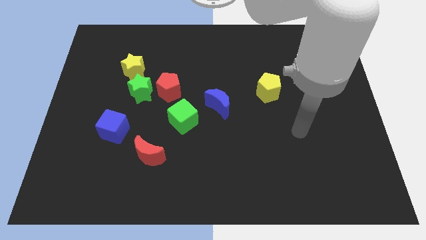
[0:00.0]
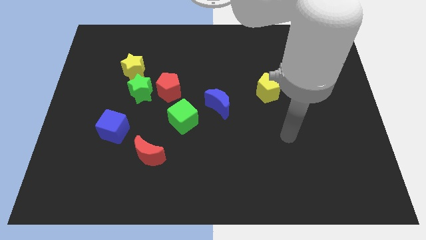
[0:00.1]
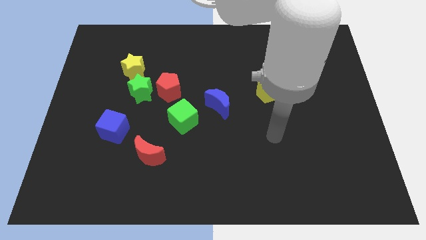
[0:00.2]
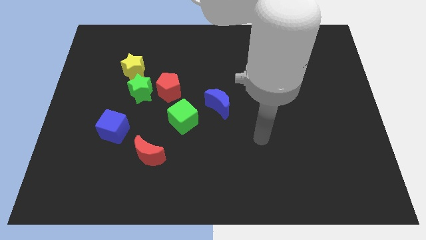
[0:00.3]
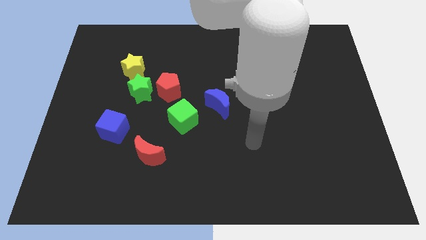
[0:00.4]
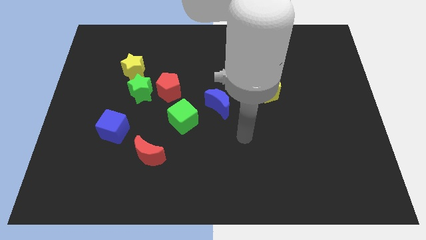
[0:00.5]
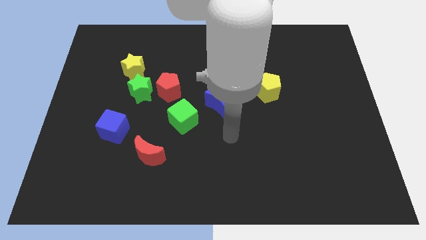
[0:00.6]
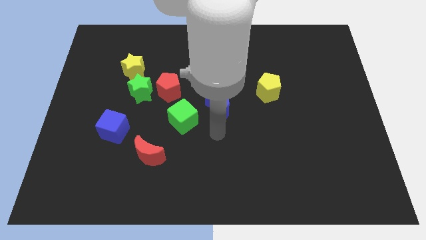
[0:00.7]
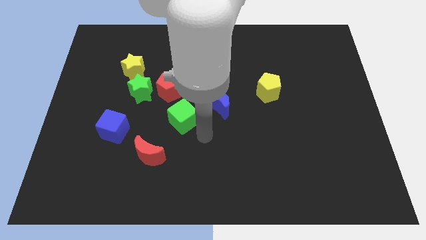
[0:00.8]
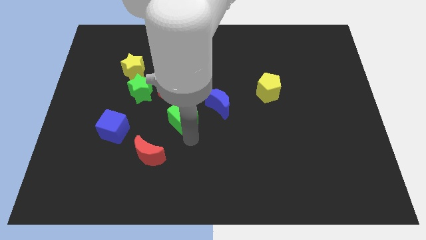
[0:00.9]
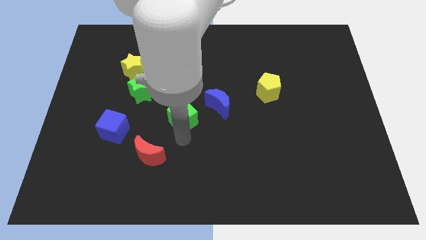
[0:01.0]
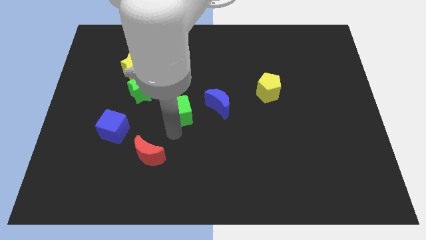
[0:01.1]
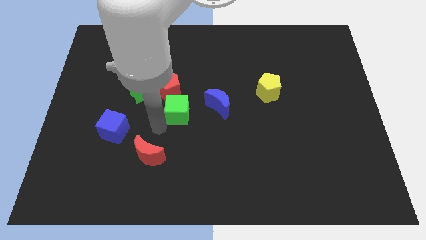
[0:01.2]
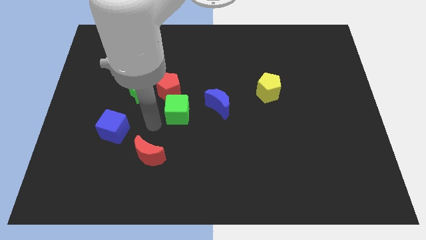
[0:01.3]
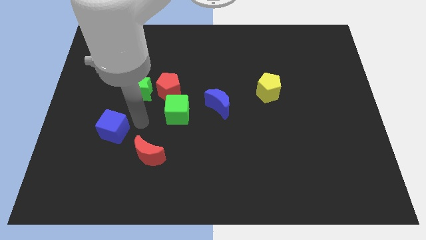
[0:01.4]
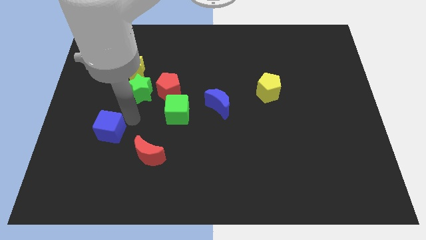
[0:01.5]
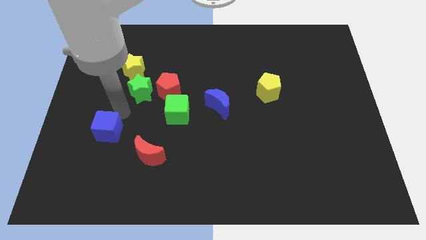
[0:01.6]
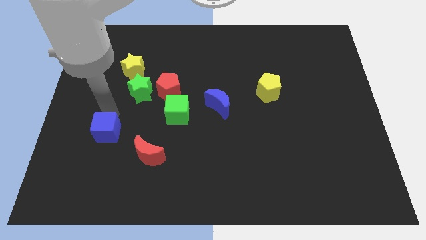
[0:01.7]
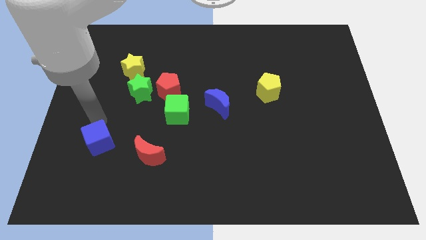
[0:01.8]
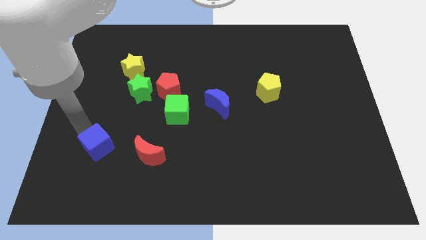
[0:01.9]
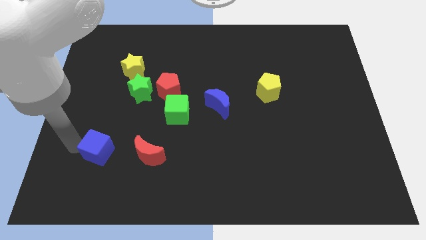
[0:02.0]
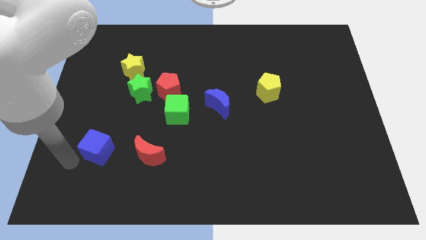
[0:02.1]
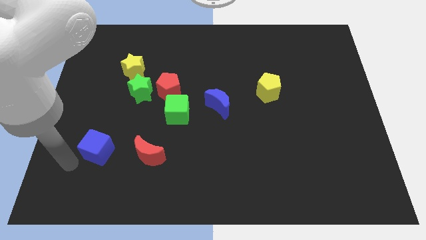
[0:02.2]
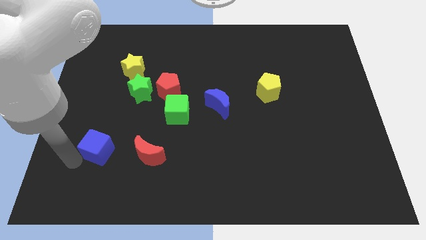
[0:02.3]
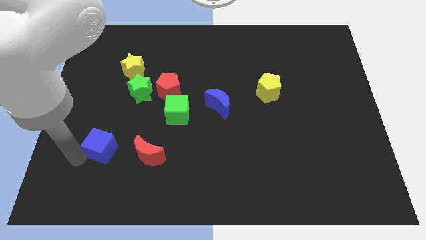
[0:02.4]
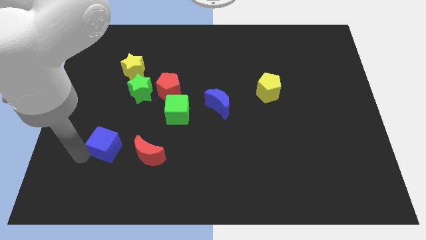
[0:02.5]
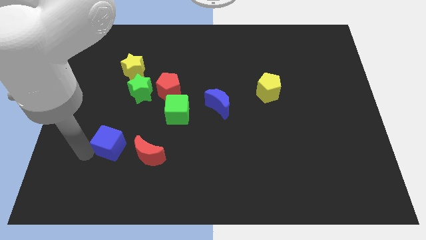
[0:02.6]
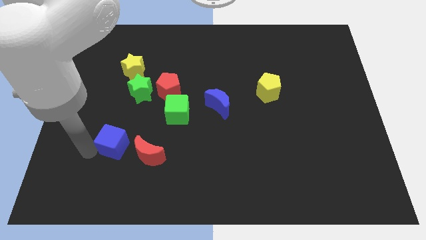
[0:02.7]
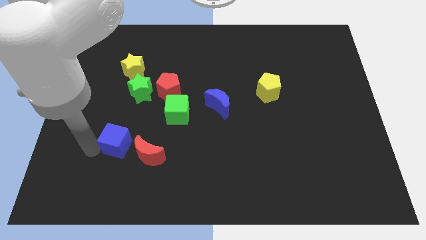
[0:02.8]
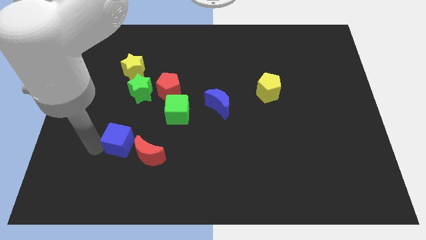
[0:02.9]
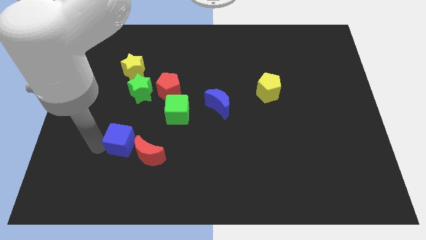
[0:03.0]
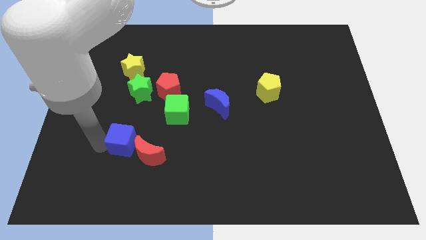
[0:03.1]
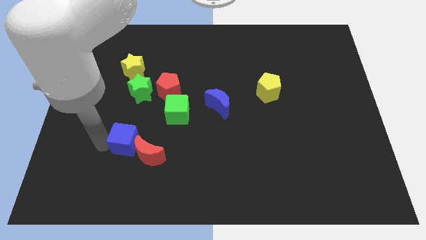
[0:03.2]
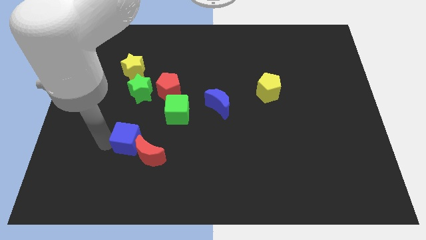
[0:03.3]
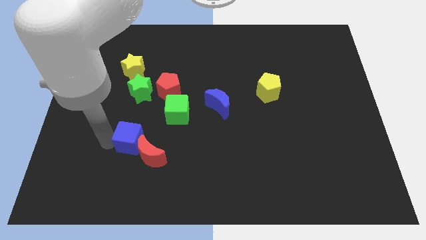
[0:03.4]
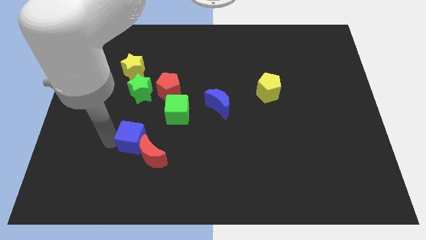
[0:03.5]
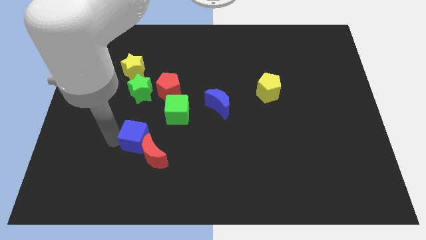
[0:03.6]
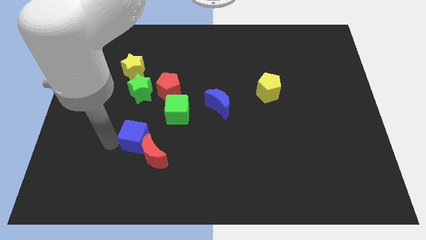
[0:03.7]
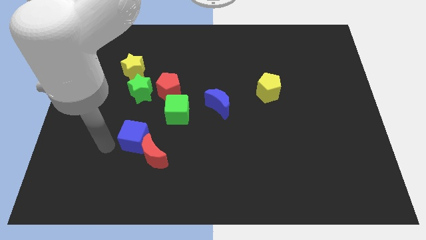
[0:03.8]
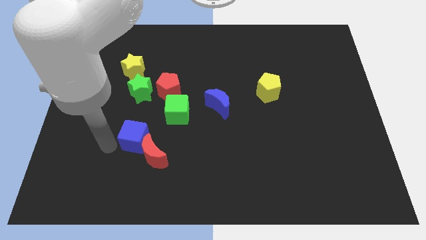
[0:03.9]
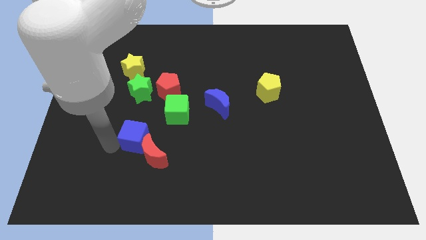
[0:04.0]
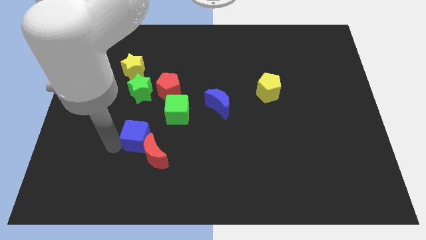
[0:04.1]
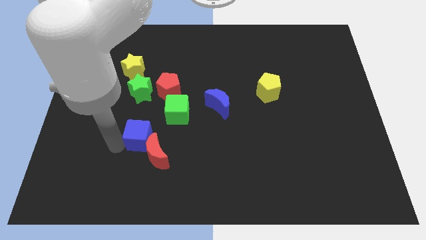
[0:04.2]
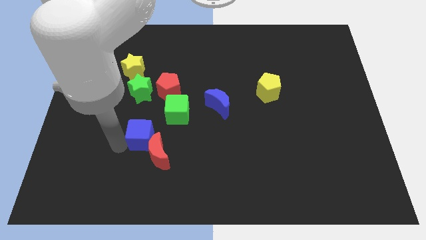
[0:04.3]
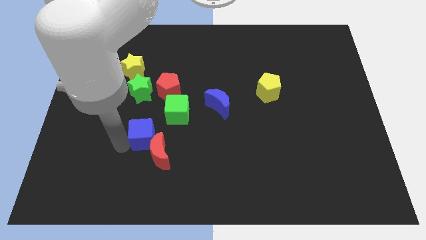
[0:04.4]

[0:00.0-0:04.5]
push the blue cube to the right slightly

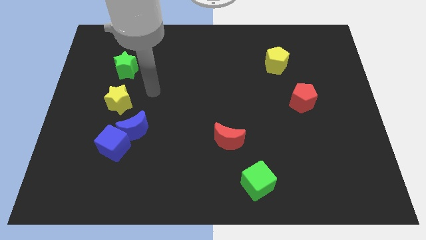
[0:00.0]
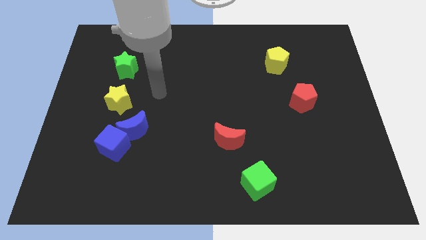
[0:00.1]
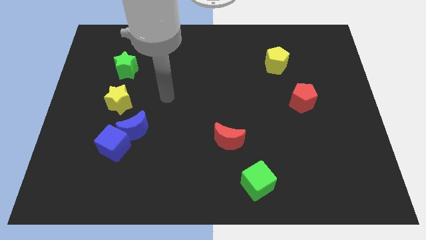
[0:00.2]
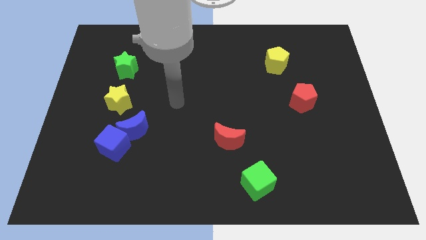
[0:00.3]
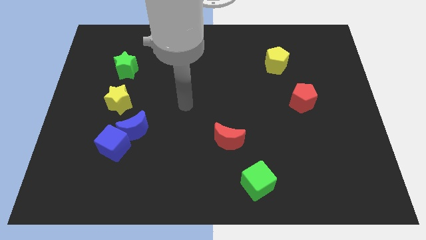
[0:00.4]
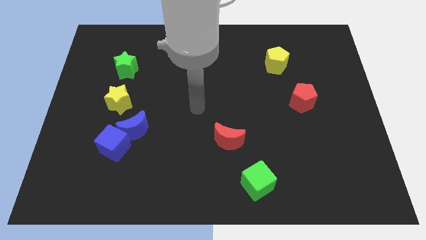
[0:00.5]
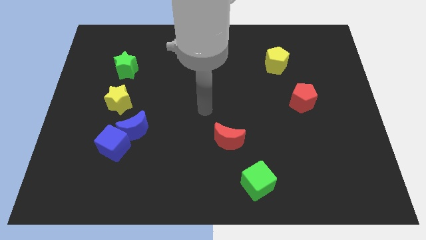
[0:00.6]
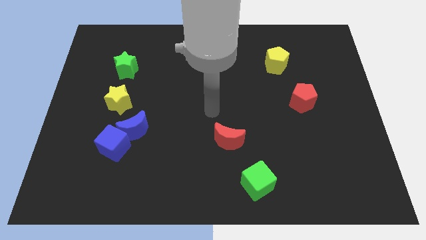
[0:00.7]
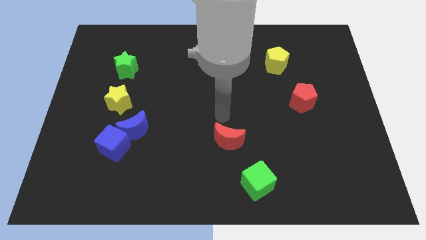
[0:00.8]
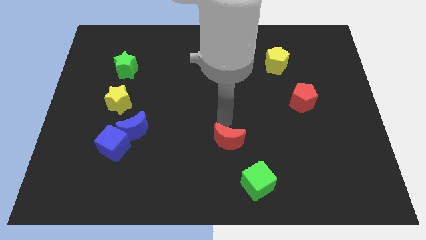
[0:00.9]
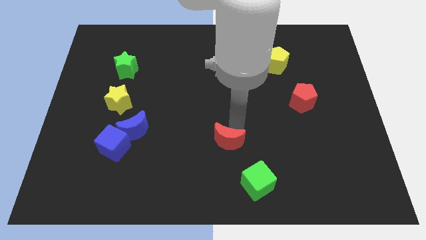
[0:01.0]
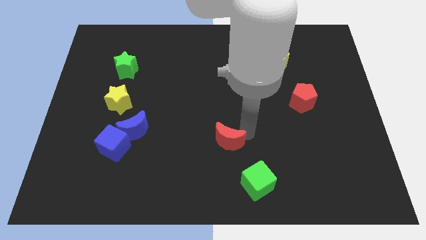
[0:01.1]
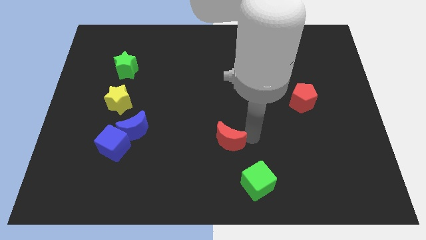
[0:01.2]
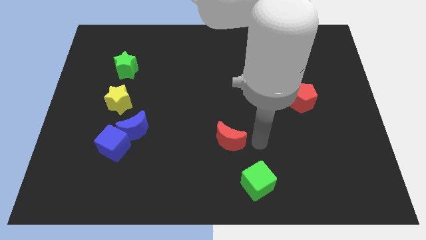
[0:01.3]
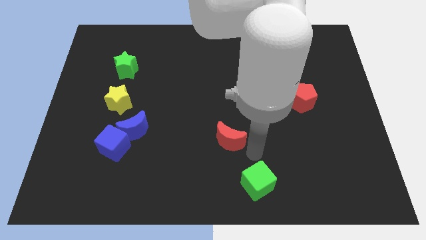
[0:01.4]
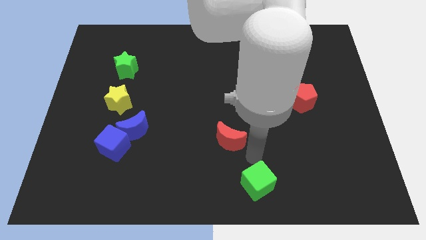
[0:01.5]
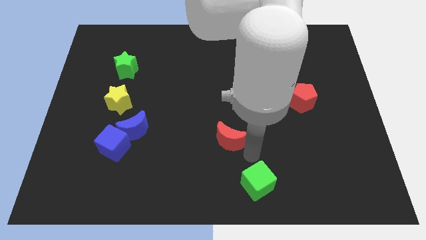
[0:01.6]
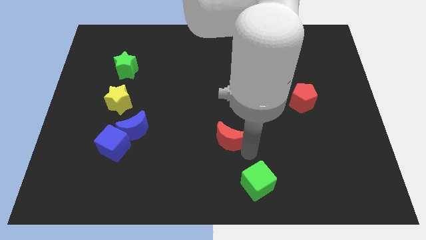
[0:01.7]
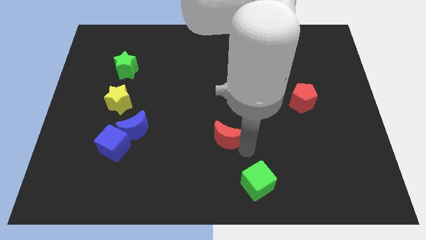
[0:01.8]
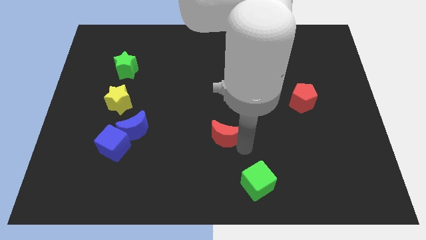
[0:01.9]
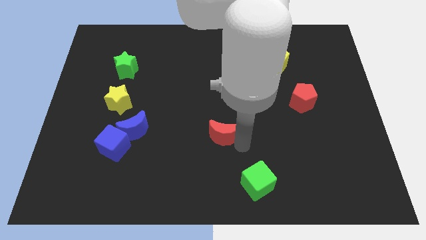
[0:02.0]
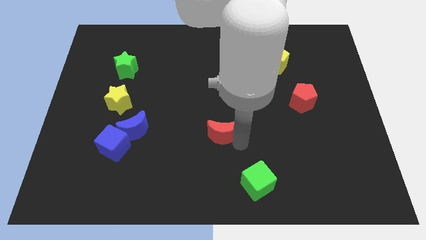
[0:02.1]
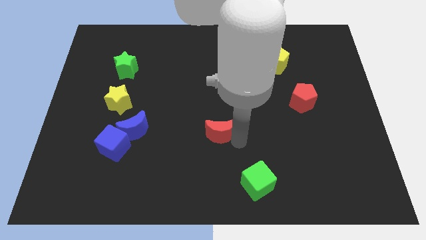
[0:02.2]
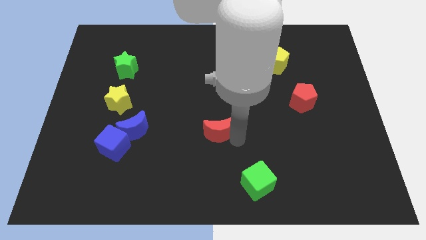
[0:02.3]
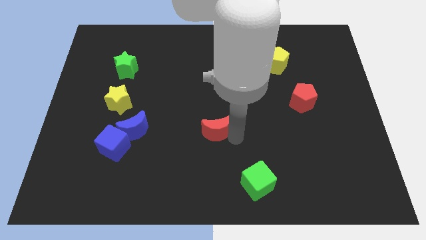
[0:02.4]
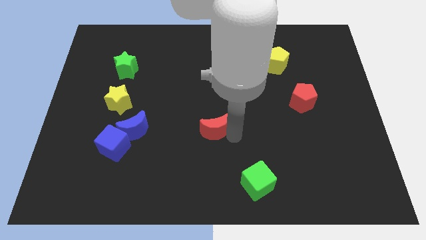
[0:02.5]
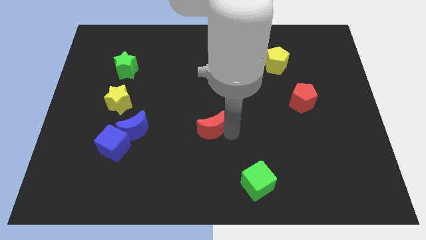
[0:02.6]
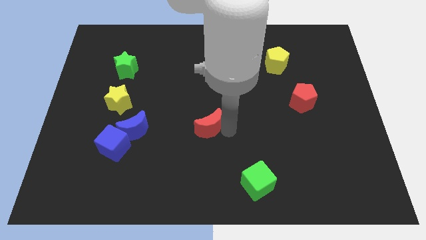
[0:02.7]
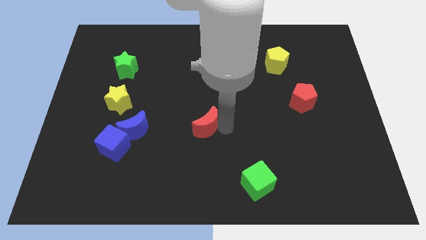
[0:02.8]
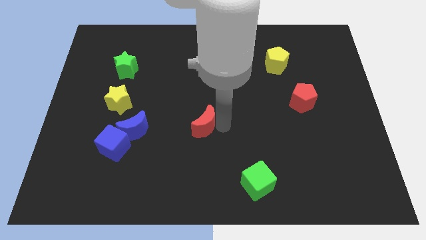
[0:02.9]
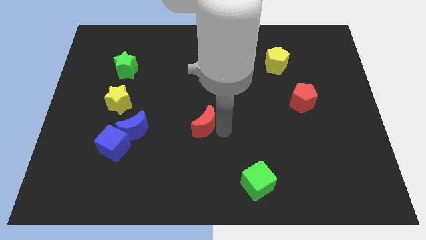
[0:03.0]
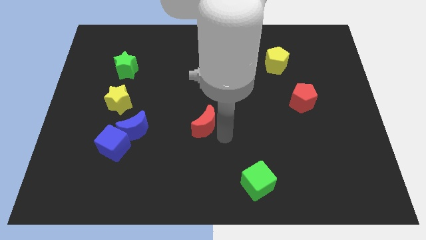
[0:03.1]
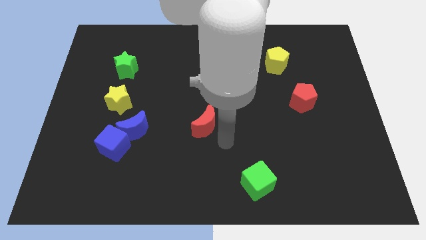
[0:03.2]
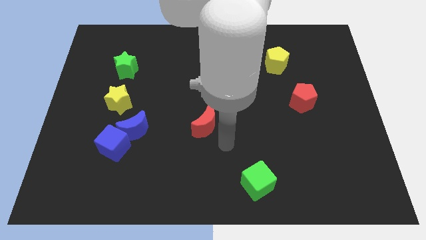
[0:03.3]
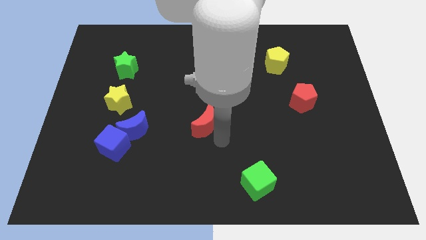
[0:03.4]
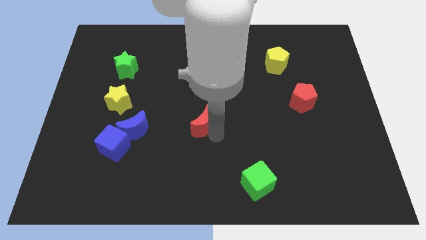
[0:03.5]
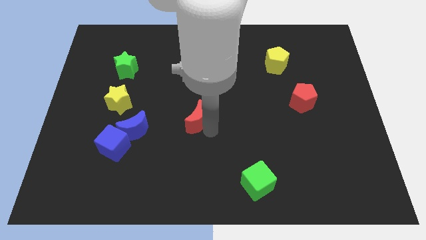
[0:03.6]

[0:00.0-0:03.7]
slide the red moon a little bit upwards and left
